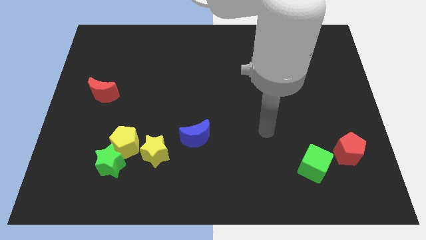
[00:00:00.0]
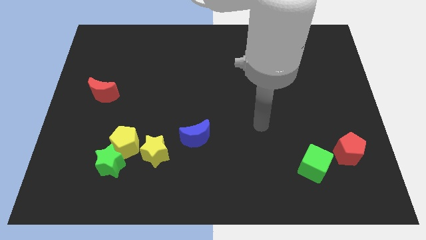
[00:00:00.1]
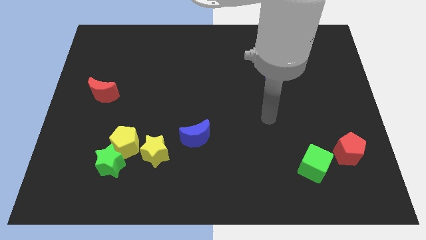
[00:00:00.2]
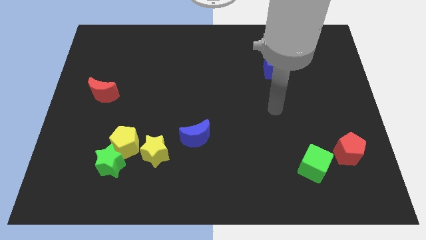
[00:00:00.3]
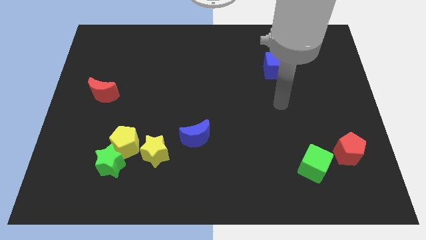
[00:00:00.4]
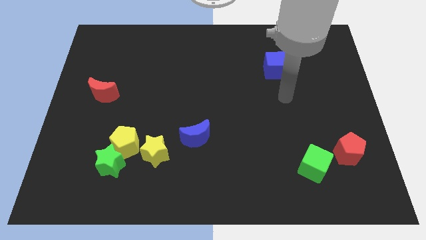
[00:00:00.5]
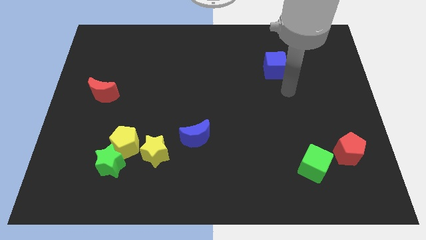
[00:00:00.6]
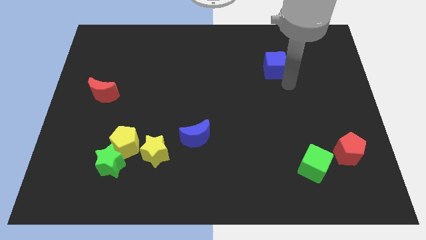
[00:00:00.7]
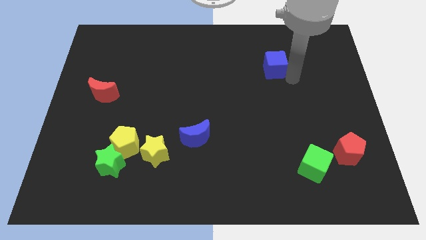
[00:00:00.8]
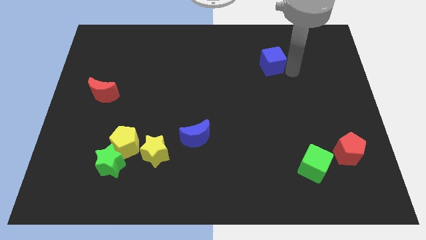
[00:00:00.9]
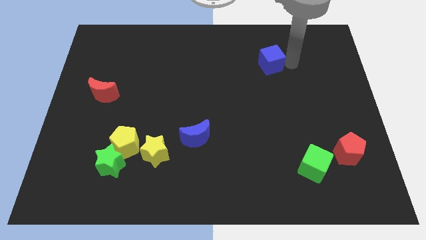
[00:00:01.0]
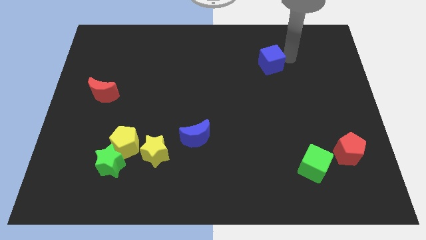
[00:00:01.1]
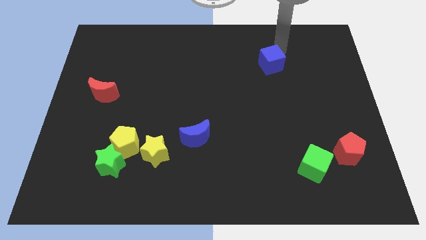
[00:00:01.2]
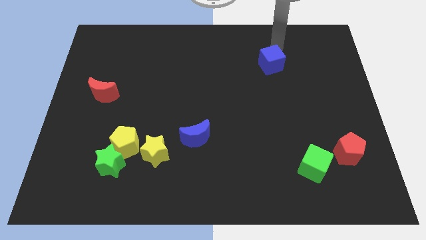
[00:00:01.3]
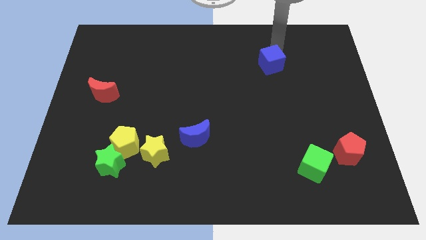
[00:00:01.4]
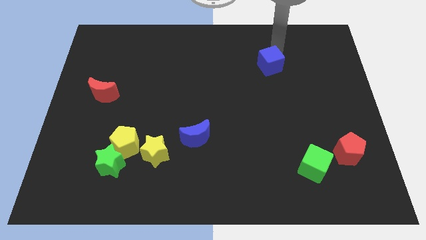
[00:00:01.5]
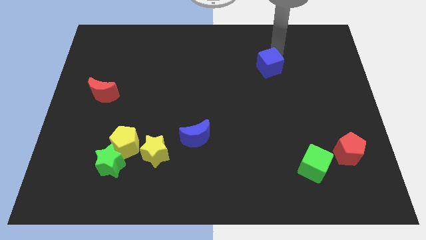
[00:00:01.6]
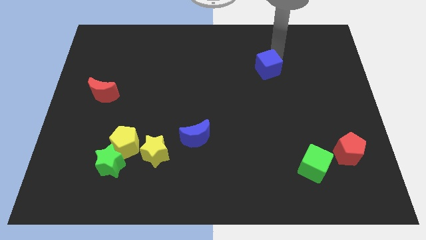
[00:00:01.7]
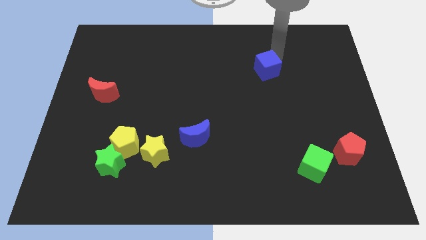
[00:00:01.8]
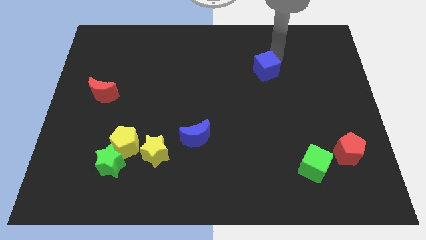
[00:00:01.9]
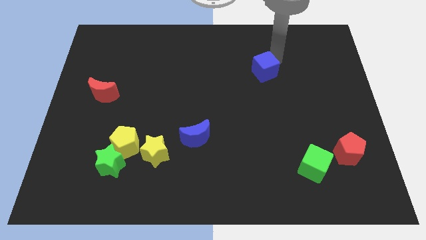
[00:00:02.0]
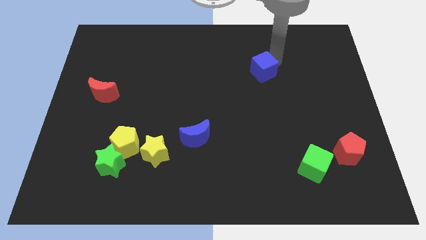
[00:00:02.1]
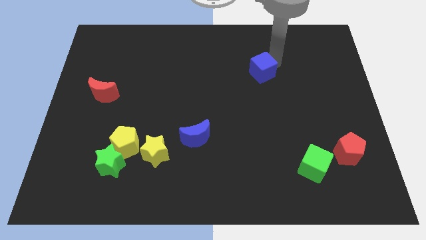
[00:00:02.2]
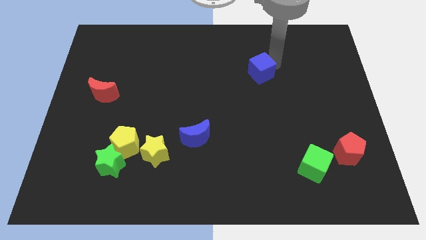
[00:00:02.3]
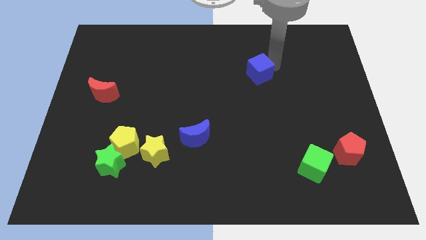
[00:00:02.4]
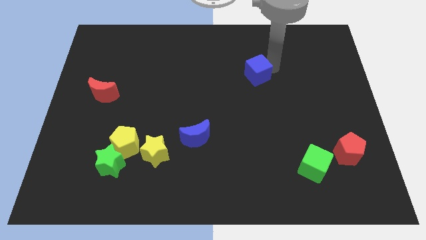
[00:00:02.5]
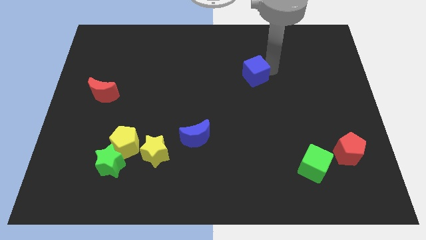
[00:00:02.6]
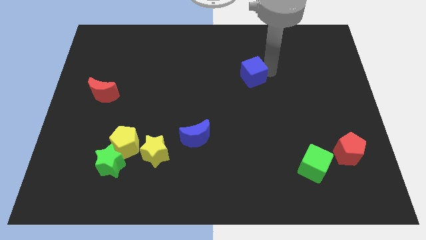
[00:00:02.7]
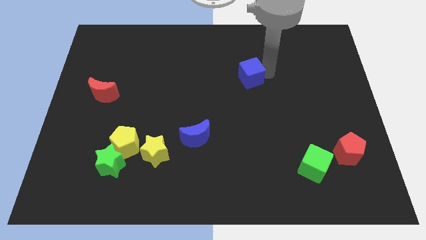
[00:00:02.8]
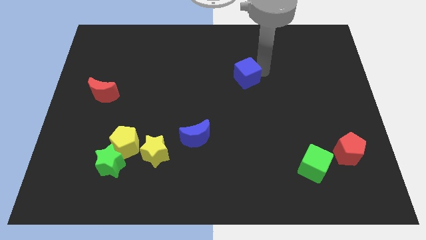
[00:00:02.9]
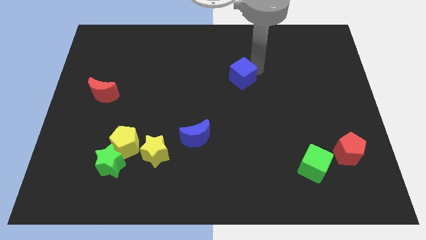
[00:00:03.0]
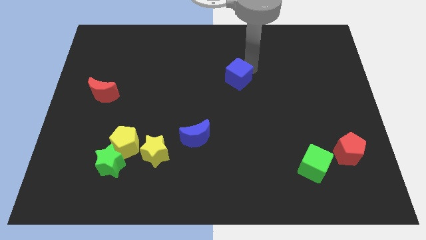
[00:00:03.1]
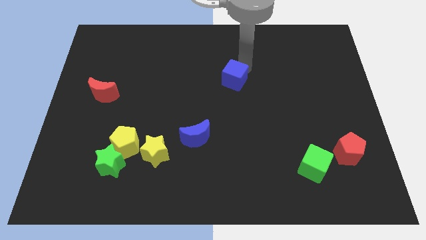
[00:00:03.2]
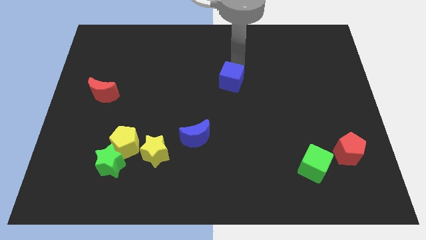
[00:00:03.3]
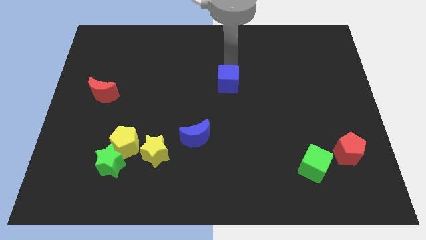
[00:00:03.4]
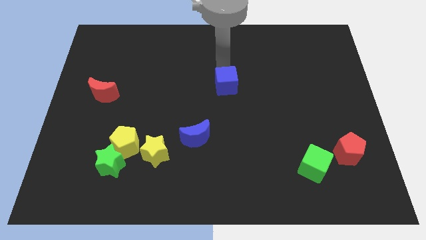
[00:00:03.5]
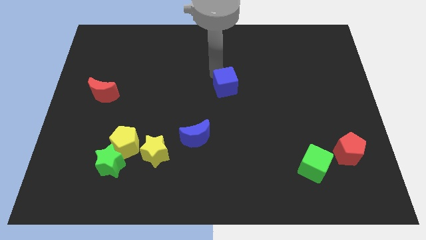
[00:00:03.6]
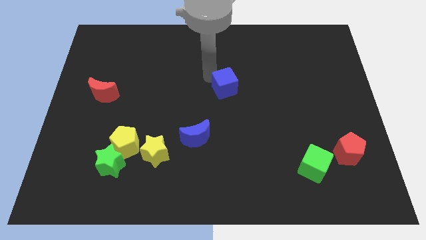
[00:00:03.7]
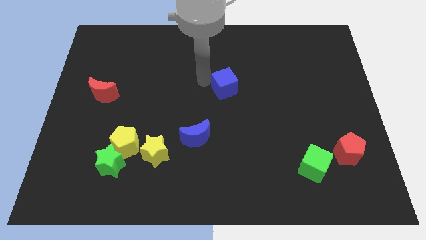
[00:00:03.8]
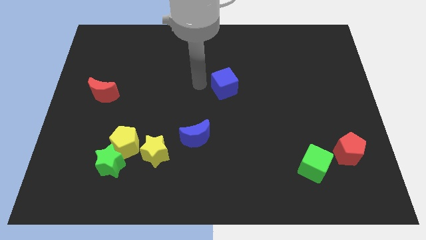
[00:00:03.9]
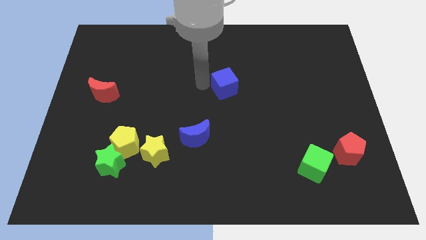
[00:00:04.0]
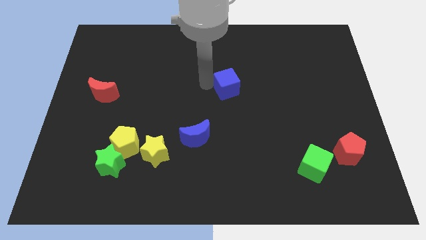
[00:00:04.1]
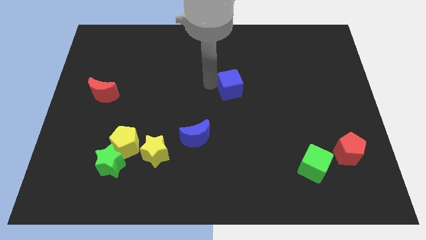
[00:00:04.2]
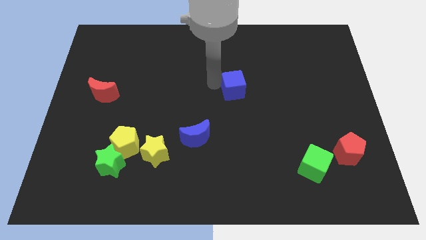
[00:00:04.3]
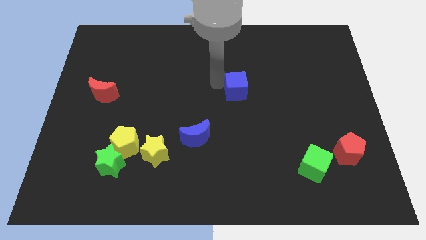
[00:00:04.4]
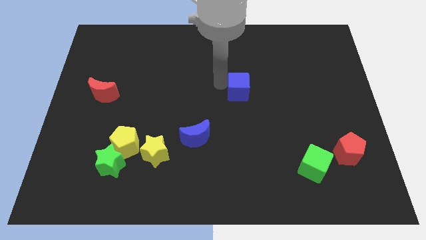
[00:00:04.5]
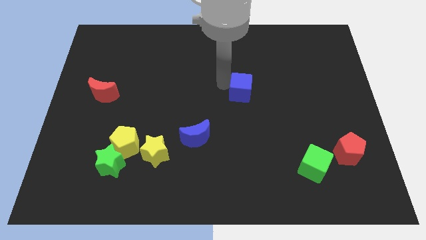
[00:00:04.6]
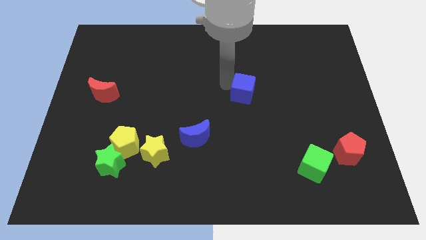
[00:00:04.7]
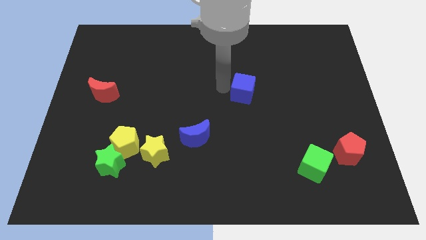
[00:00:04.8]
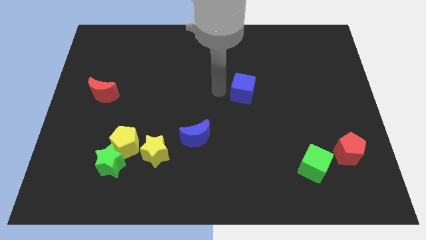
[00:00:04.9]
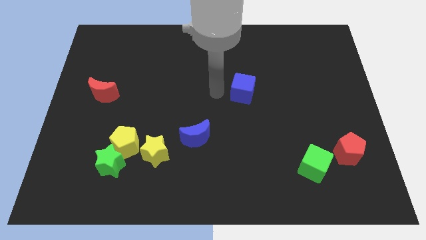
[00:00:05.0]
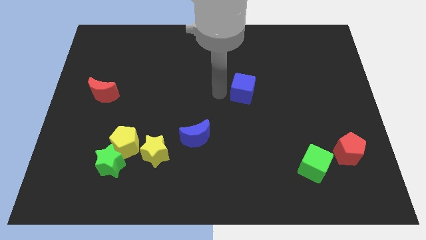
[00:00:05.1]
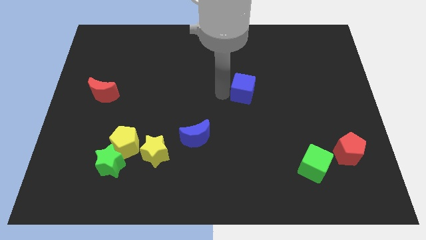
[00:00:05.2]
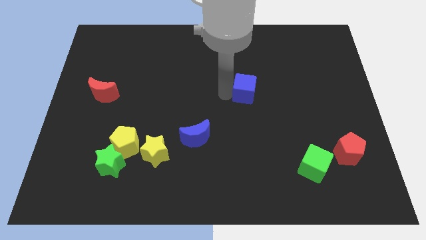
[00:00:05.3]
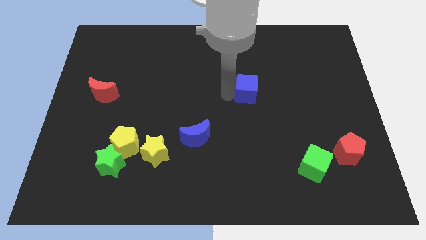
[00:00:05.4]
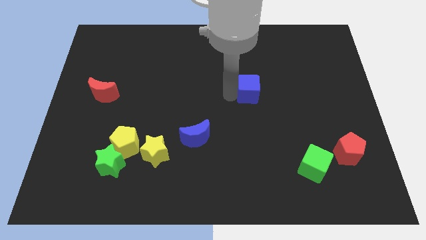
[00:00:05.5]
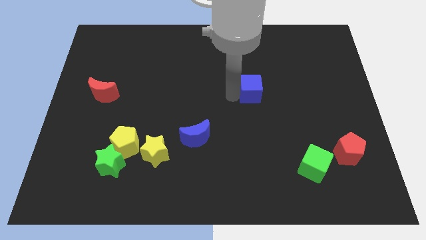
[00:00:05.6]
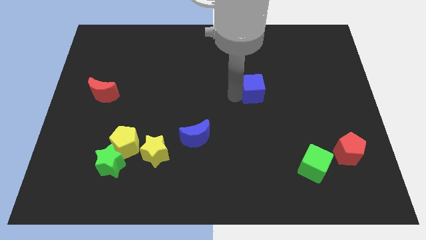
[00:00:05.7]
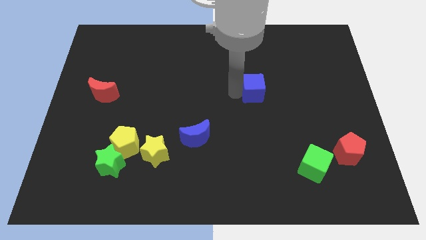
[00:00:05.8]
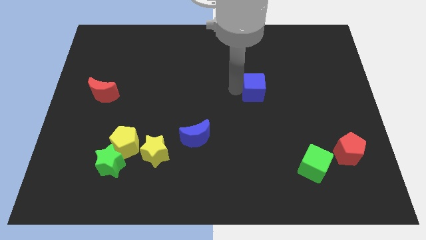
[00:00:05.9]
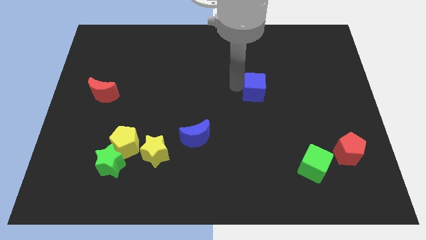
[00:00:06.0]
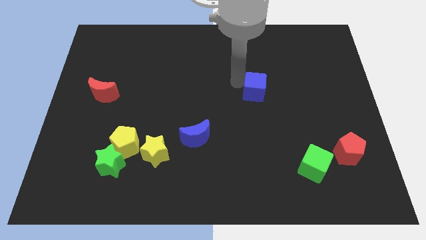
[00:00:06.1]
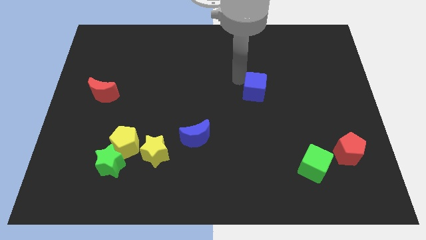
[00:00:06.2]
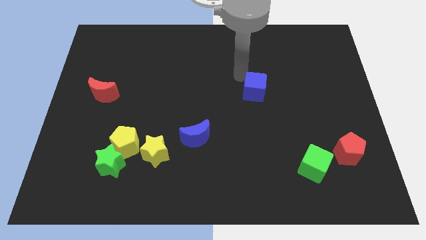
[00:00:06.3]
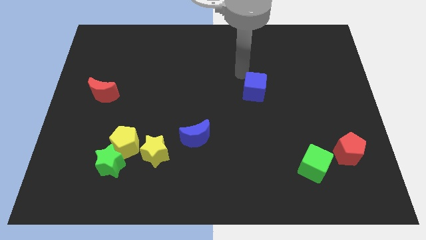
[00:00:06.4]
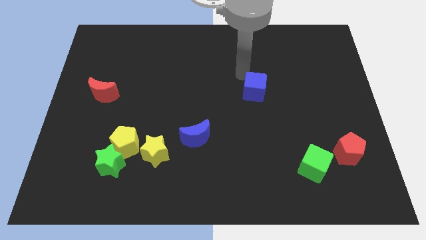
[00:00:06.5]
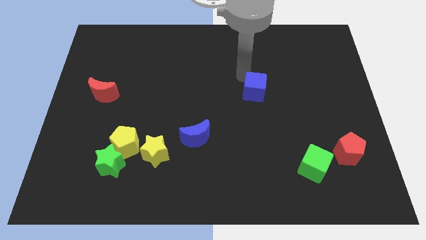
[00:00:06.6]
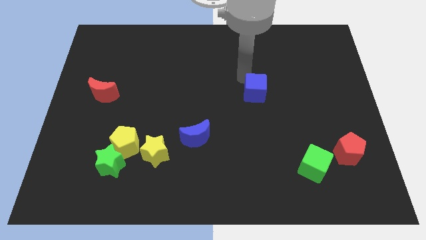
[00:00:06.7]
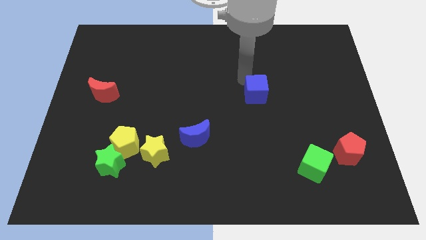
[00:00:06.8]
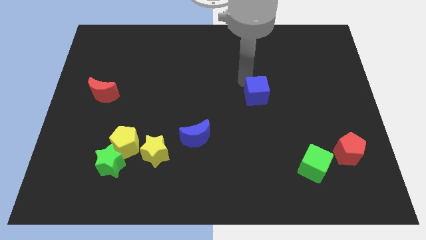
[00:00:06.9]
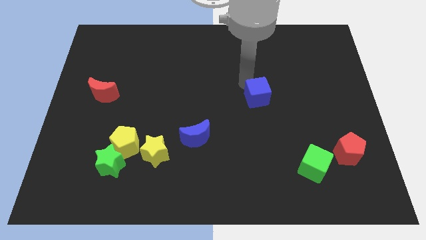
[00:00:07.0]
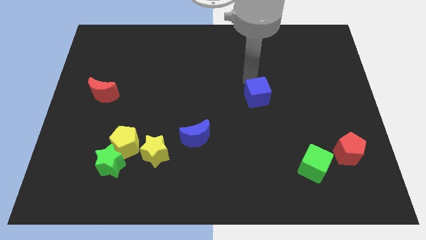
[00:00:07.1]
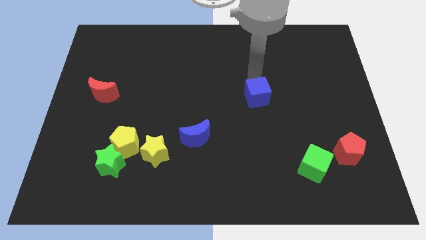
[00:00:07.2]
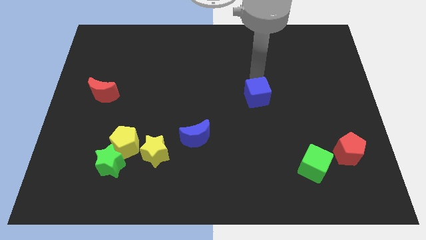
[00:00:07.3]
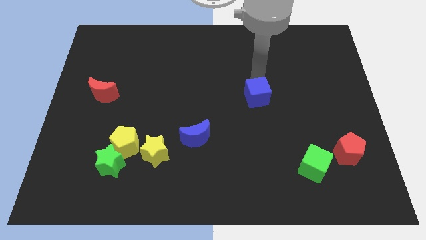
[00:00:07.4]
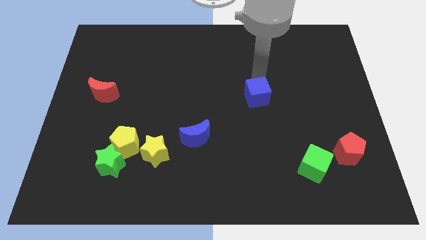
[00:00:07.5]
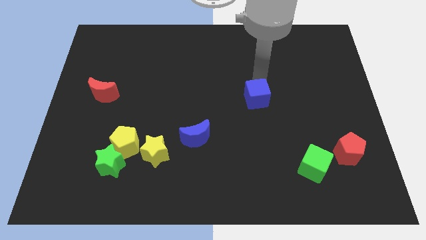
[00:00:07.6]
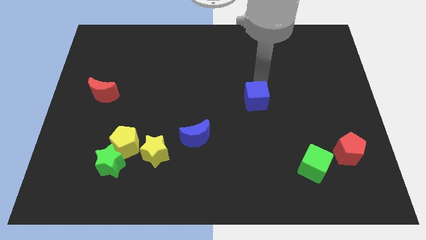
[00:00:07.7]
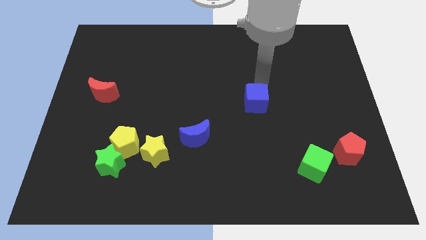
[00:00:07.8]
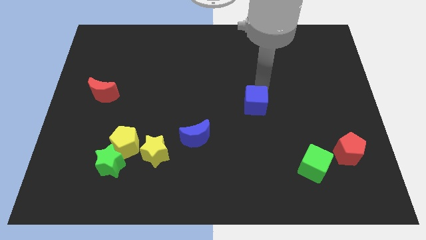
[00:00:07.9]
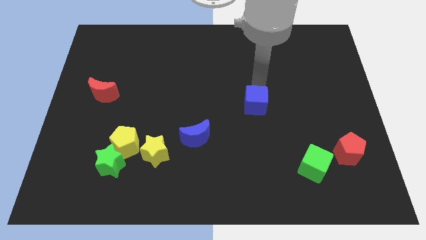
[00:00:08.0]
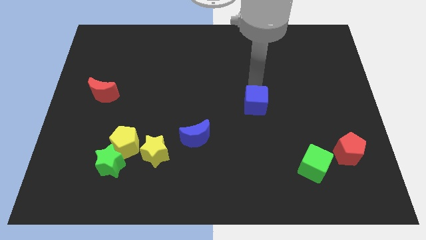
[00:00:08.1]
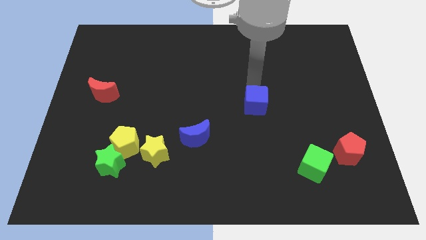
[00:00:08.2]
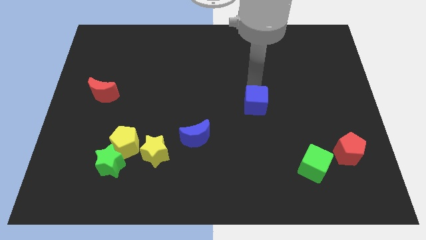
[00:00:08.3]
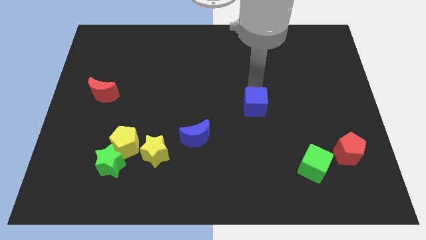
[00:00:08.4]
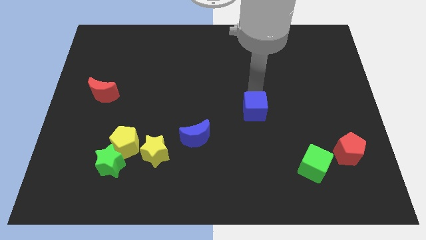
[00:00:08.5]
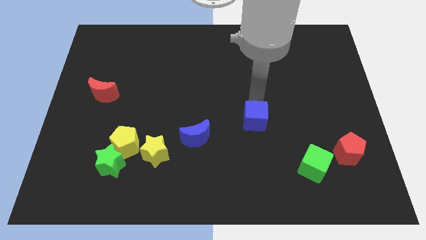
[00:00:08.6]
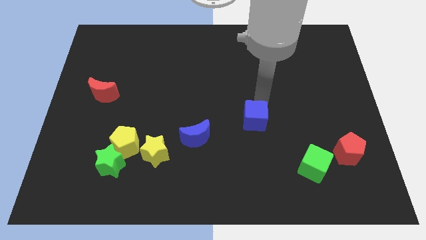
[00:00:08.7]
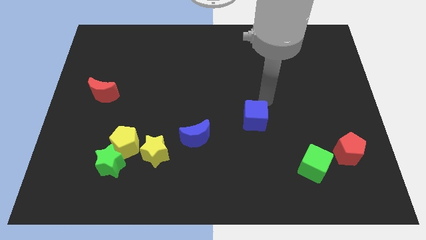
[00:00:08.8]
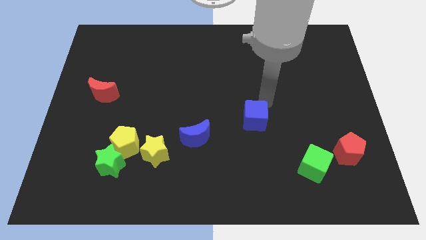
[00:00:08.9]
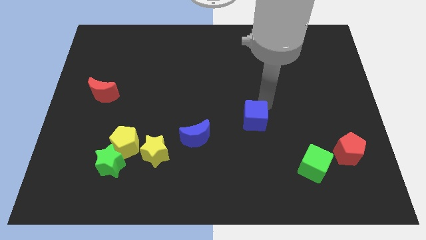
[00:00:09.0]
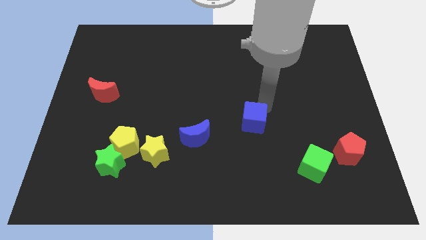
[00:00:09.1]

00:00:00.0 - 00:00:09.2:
push the blue cube just right of the blue moon
